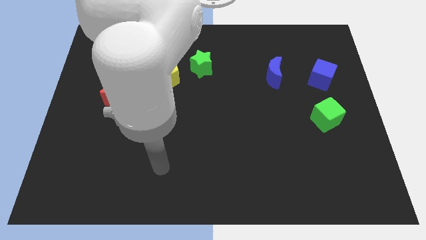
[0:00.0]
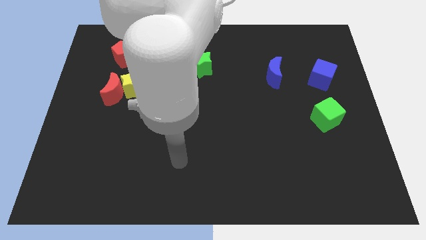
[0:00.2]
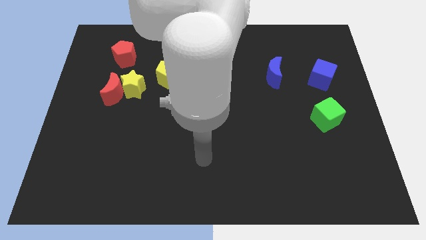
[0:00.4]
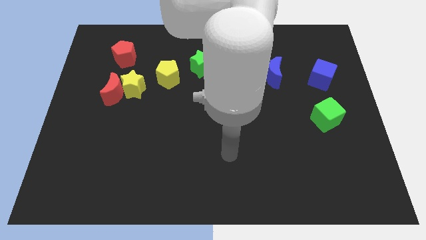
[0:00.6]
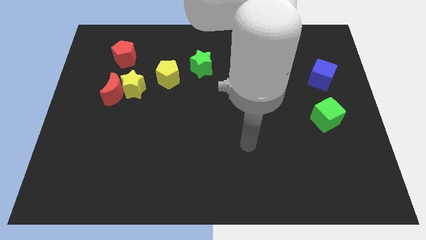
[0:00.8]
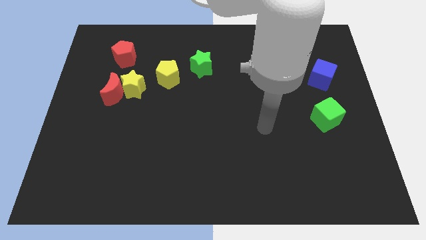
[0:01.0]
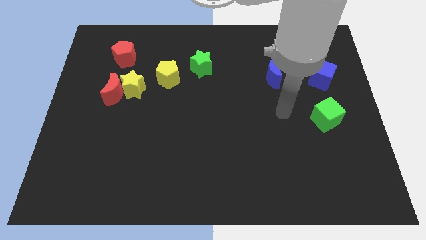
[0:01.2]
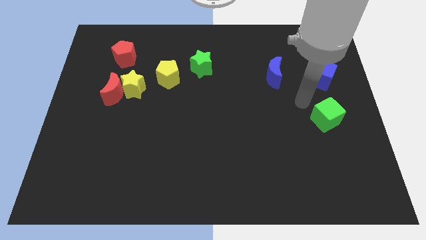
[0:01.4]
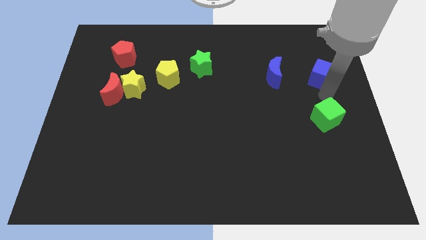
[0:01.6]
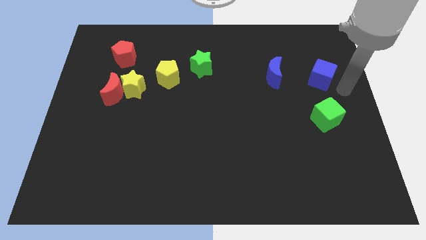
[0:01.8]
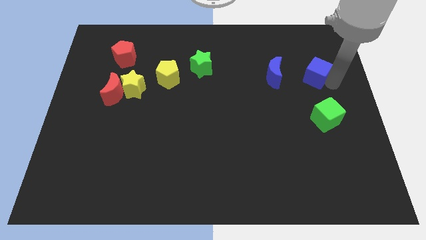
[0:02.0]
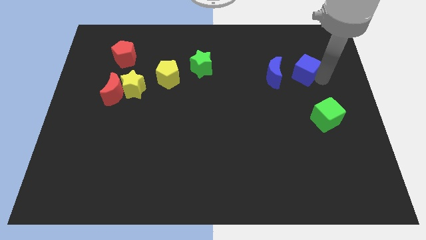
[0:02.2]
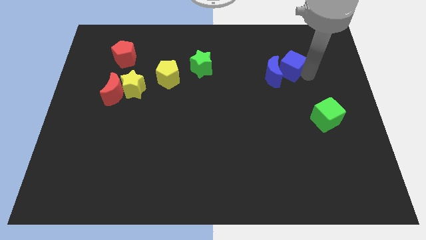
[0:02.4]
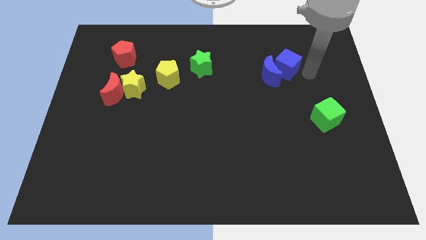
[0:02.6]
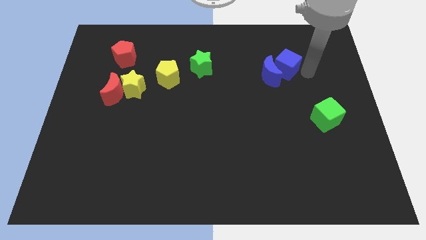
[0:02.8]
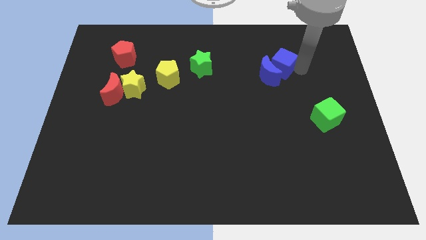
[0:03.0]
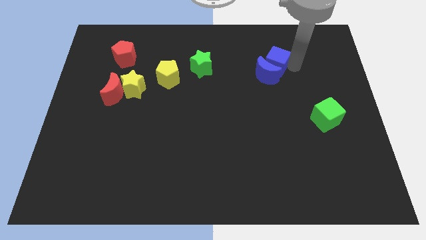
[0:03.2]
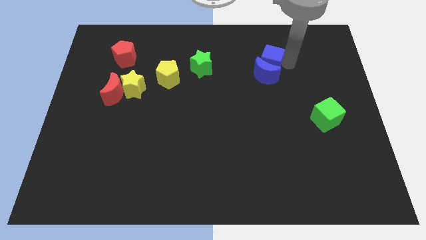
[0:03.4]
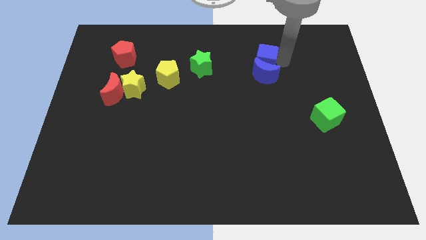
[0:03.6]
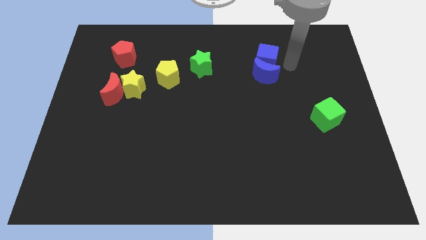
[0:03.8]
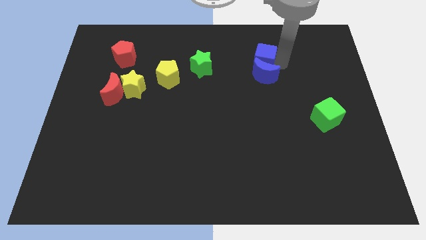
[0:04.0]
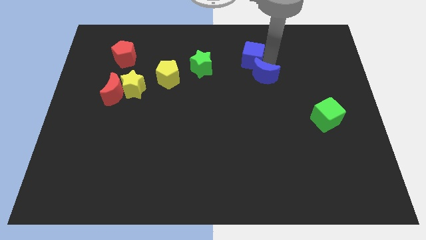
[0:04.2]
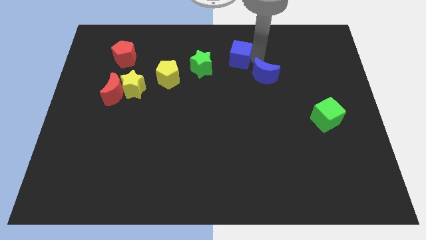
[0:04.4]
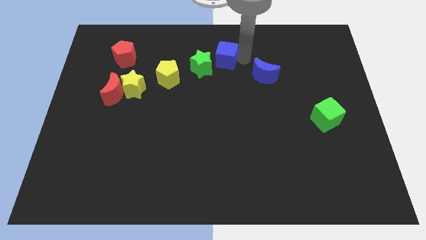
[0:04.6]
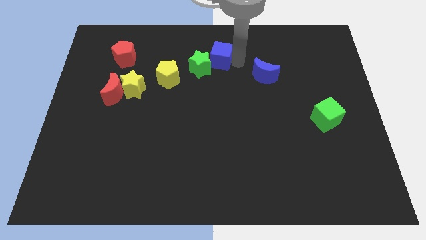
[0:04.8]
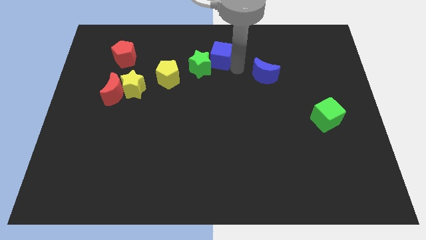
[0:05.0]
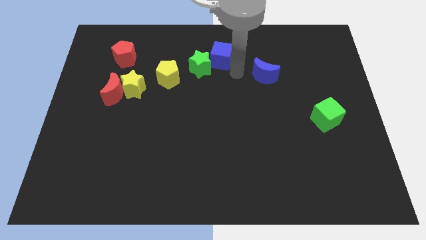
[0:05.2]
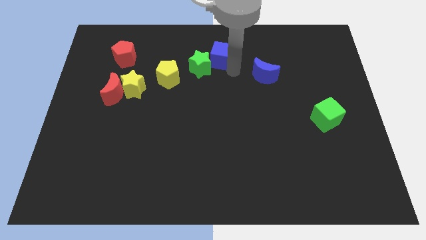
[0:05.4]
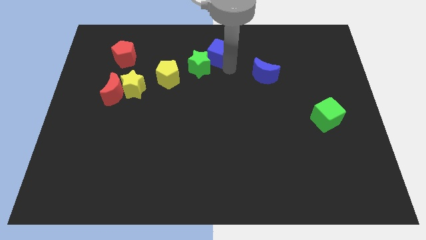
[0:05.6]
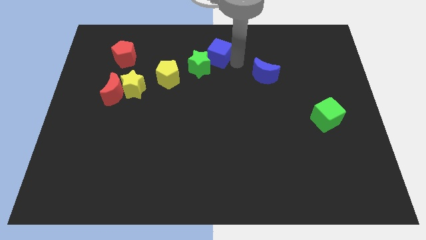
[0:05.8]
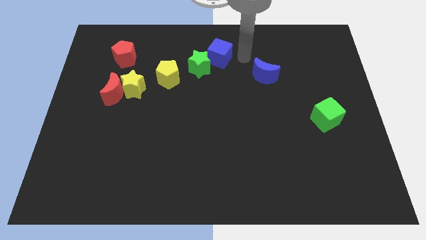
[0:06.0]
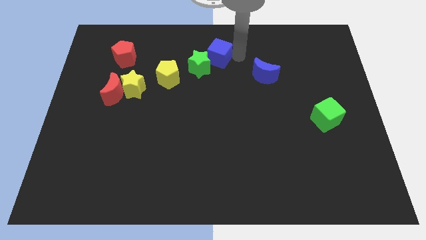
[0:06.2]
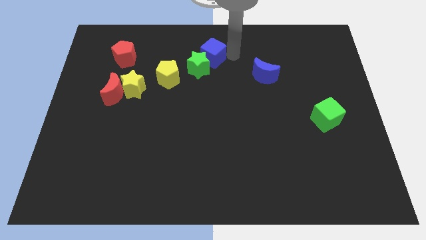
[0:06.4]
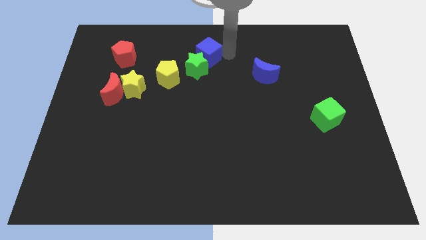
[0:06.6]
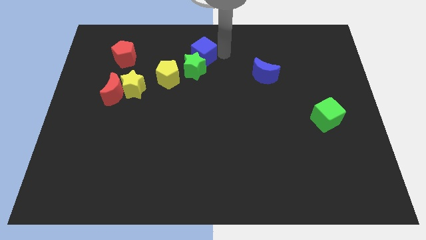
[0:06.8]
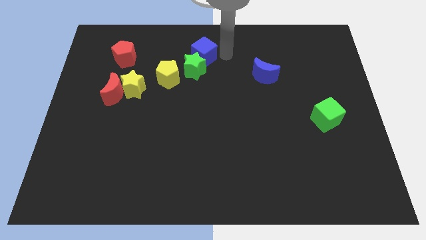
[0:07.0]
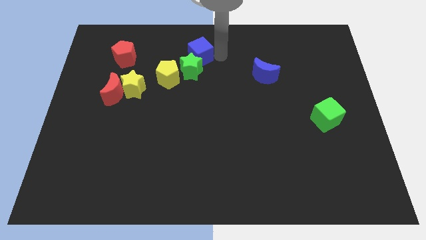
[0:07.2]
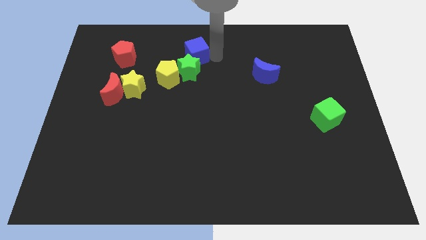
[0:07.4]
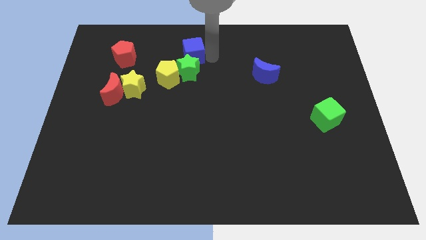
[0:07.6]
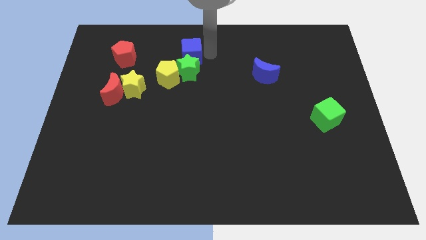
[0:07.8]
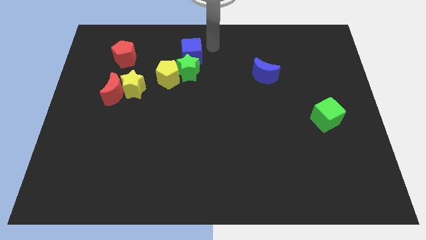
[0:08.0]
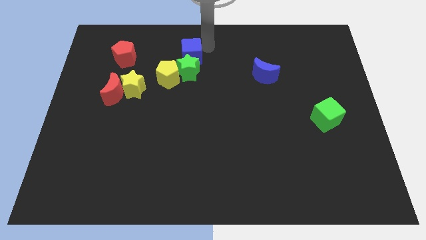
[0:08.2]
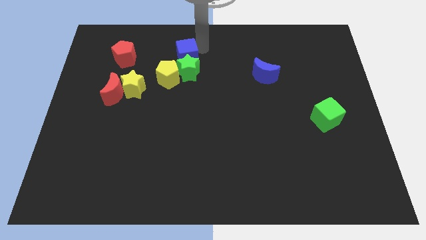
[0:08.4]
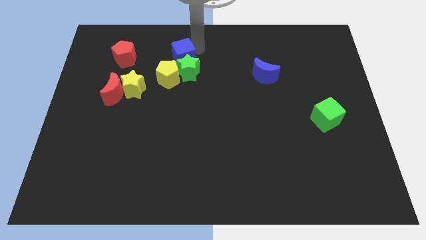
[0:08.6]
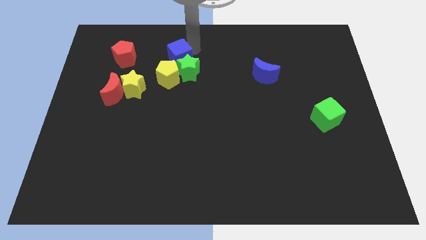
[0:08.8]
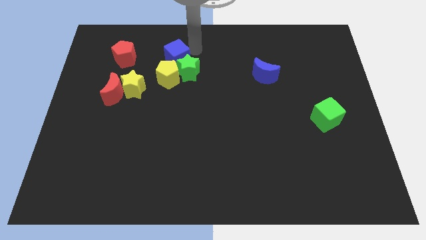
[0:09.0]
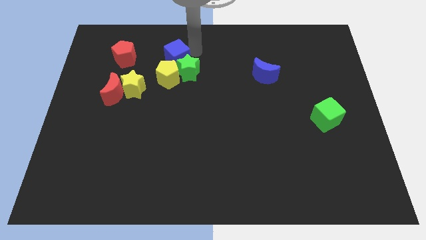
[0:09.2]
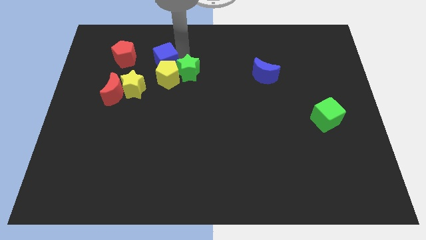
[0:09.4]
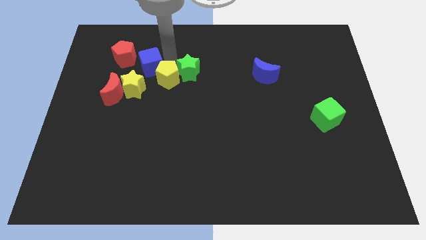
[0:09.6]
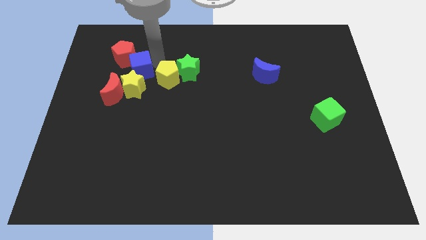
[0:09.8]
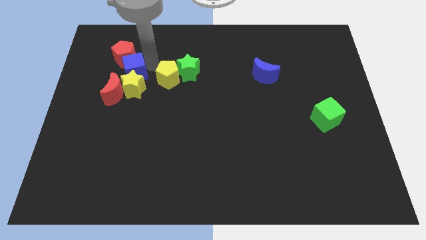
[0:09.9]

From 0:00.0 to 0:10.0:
put the blue cube to the top left of the yellow star

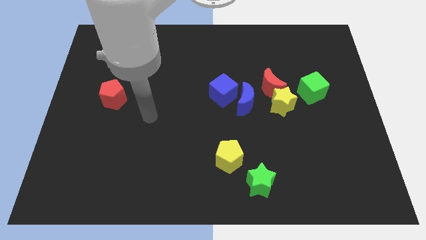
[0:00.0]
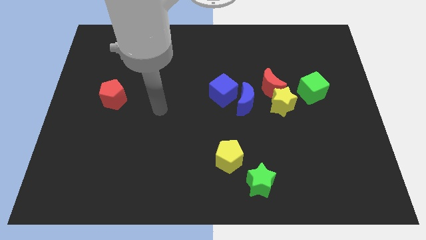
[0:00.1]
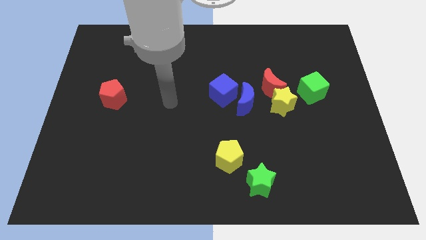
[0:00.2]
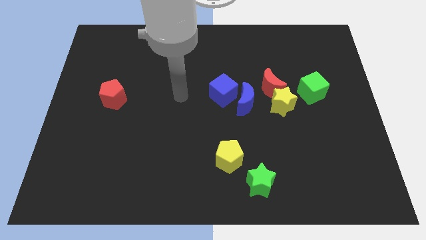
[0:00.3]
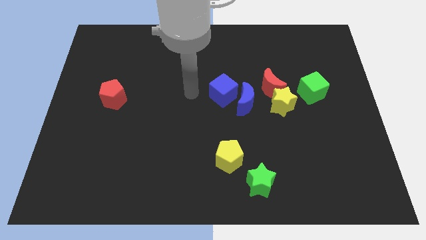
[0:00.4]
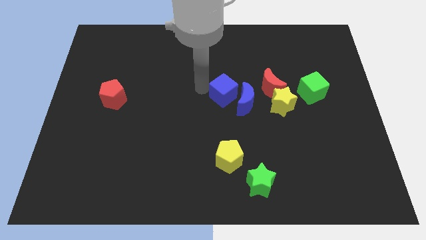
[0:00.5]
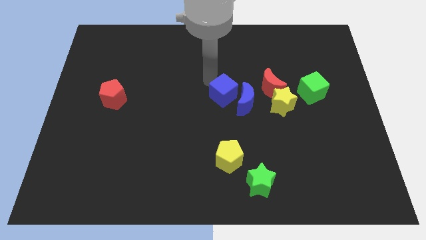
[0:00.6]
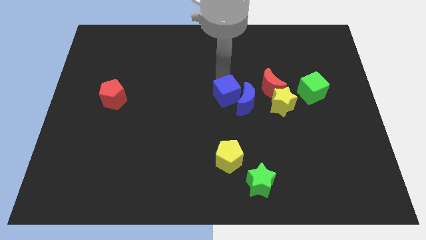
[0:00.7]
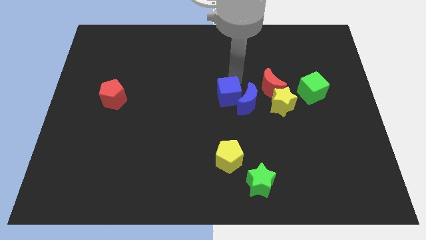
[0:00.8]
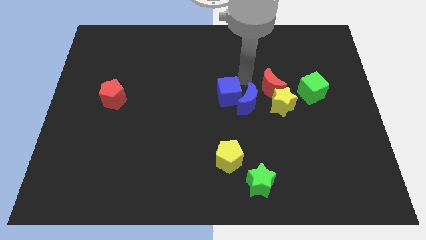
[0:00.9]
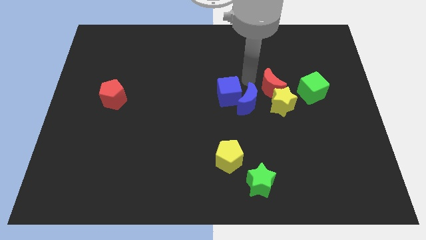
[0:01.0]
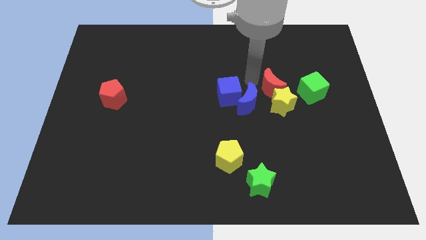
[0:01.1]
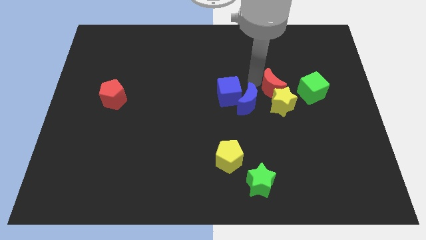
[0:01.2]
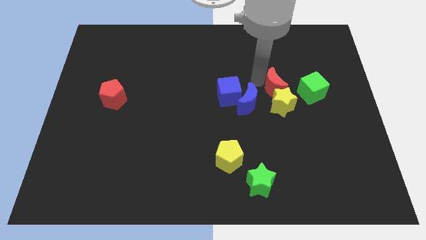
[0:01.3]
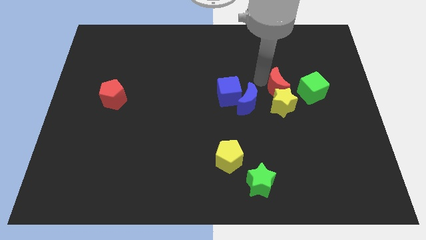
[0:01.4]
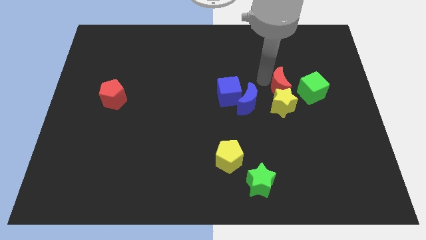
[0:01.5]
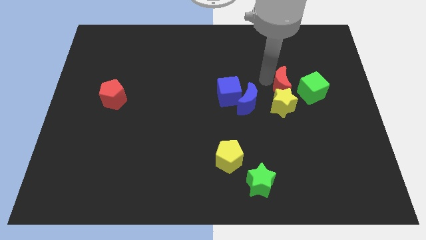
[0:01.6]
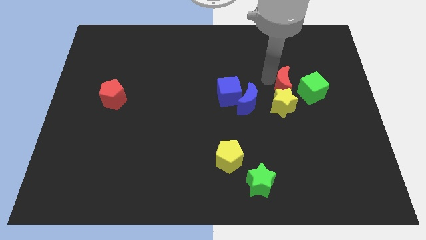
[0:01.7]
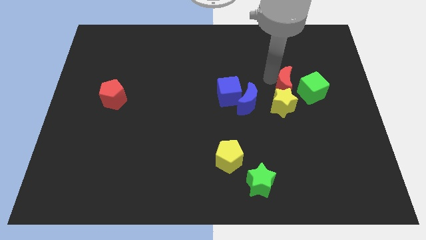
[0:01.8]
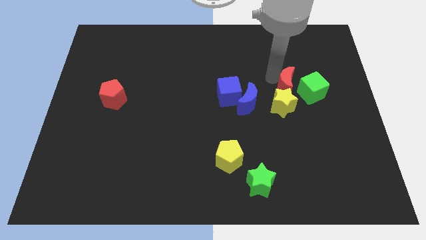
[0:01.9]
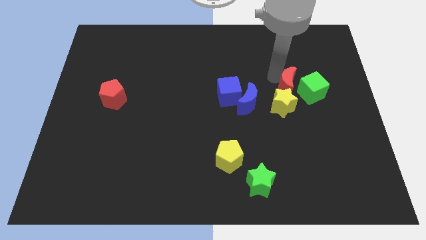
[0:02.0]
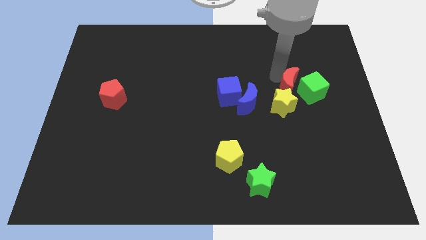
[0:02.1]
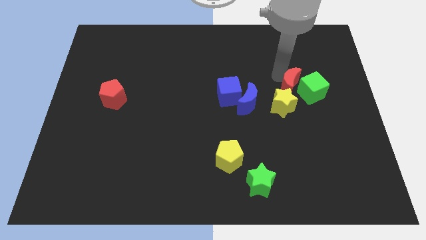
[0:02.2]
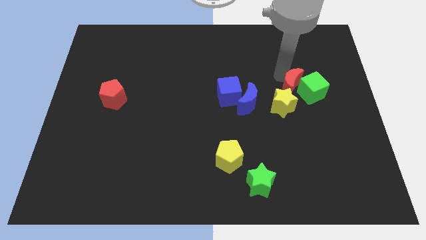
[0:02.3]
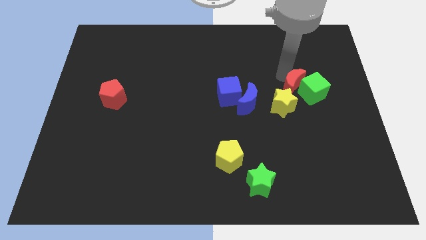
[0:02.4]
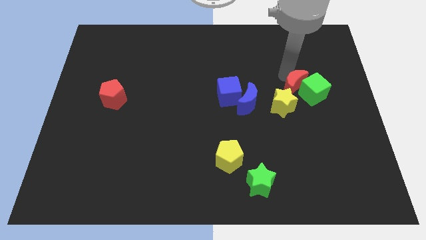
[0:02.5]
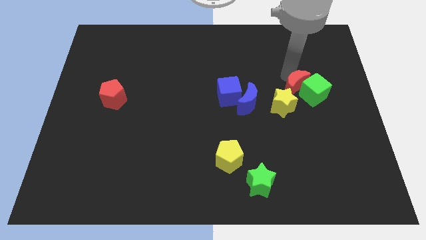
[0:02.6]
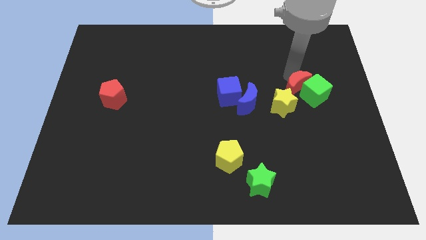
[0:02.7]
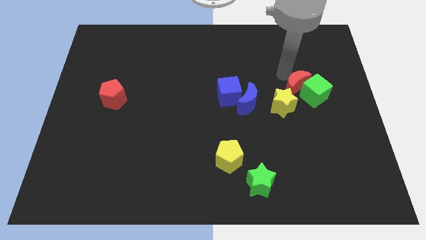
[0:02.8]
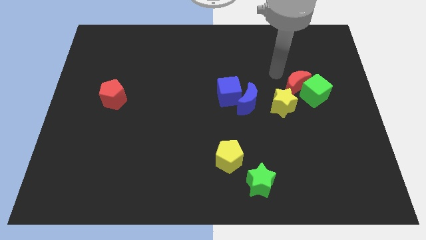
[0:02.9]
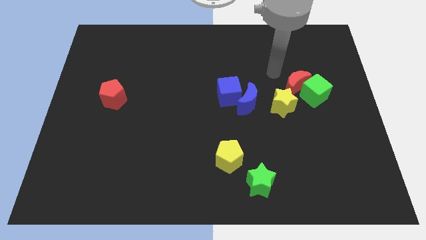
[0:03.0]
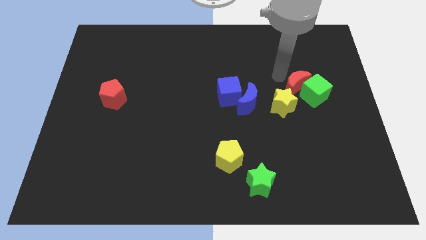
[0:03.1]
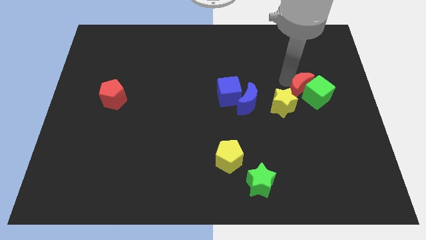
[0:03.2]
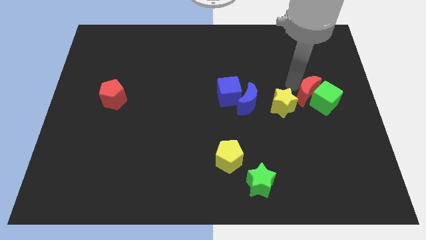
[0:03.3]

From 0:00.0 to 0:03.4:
push the red moon to the right of the yellow star

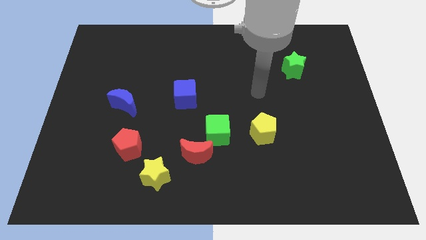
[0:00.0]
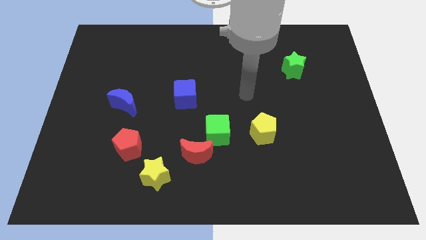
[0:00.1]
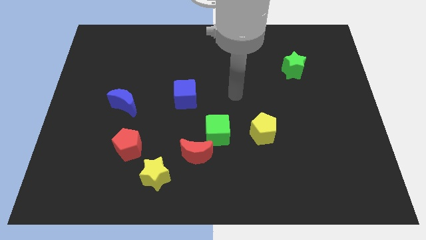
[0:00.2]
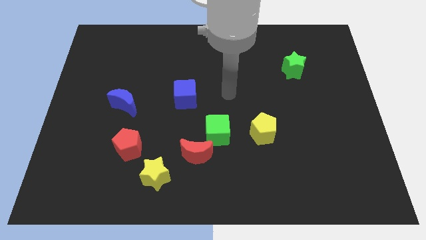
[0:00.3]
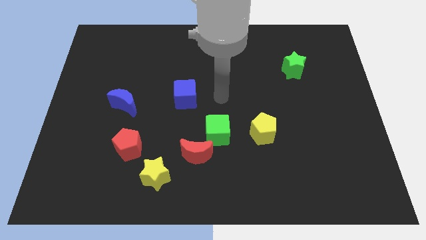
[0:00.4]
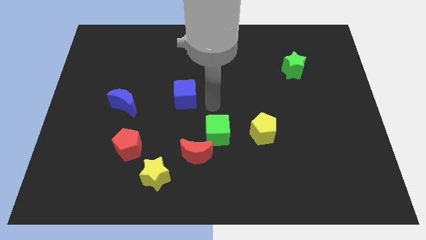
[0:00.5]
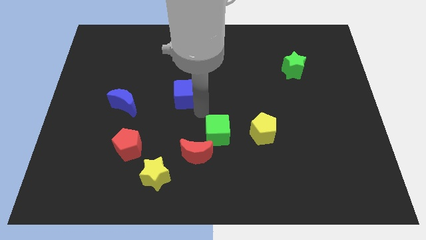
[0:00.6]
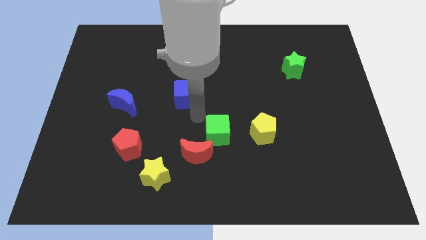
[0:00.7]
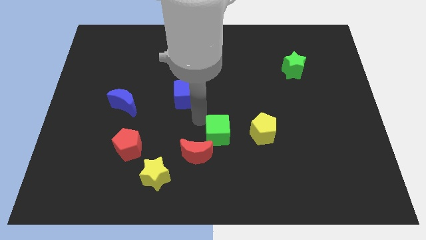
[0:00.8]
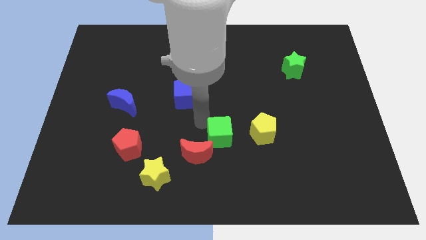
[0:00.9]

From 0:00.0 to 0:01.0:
put the green cube to the right side of the red moon
